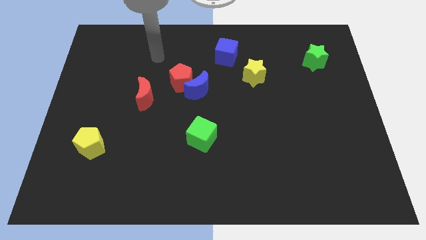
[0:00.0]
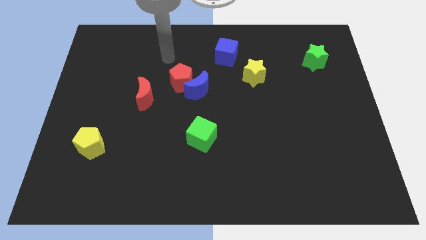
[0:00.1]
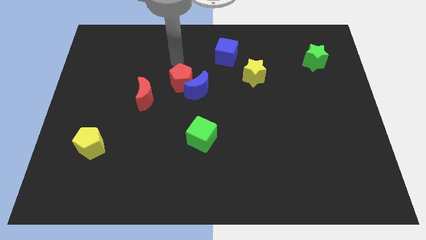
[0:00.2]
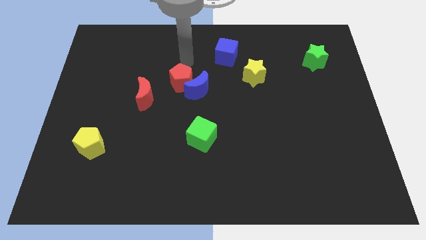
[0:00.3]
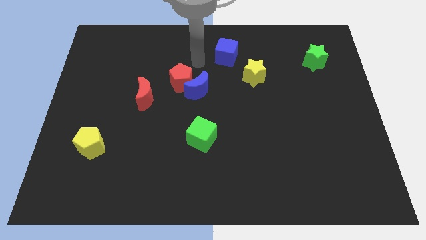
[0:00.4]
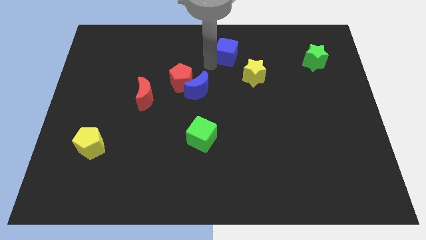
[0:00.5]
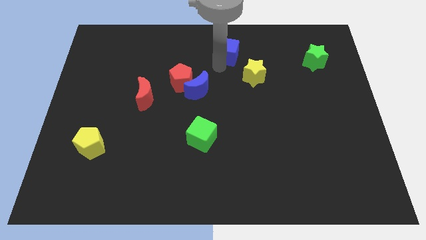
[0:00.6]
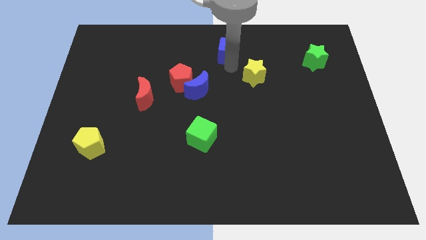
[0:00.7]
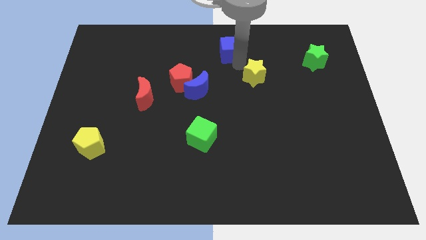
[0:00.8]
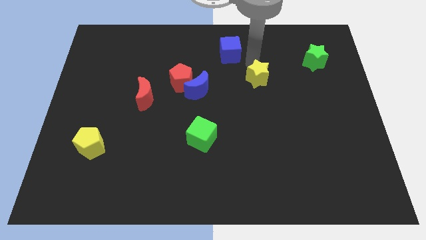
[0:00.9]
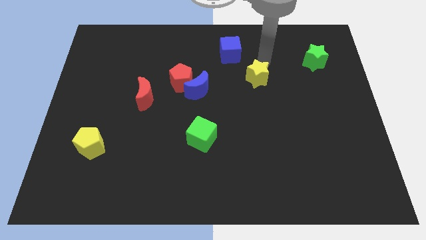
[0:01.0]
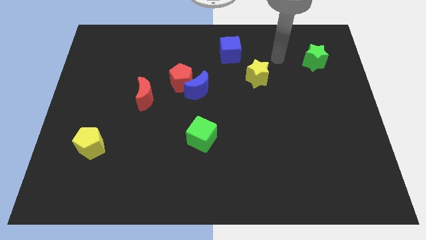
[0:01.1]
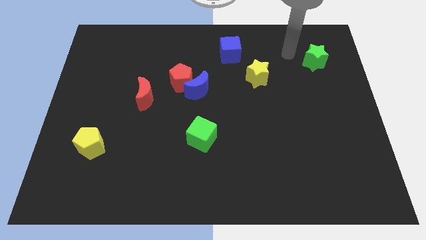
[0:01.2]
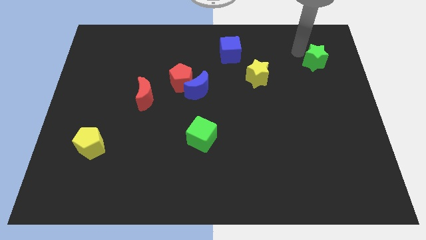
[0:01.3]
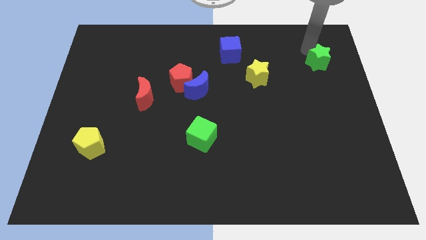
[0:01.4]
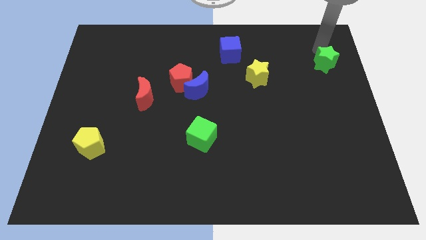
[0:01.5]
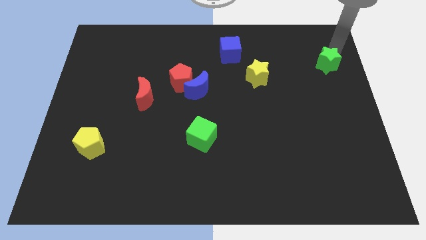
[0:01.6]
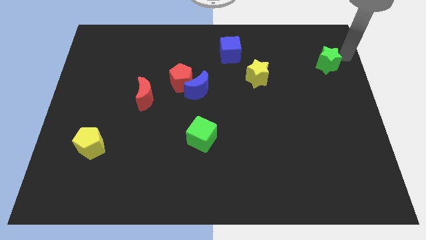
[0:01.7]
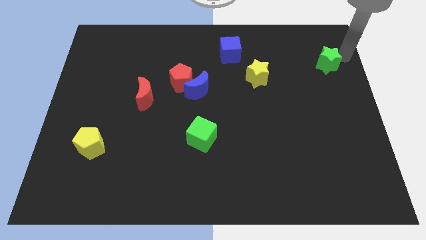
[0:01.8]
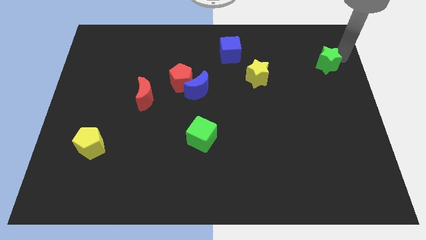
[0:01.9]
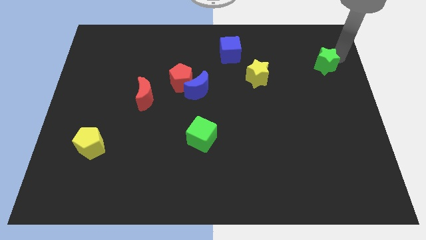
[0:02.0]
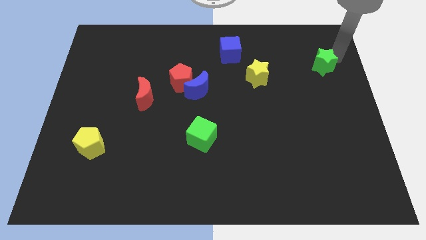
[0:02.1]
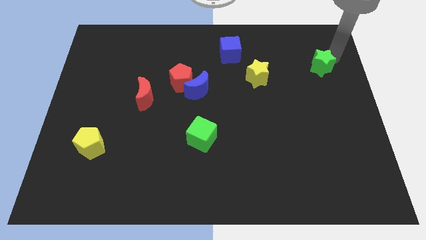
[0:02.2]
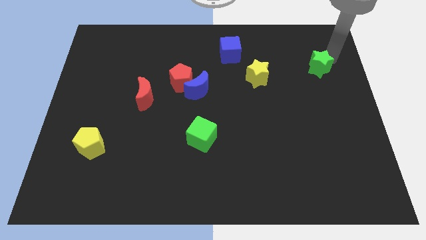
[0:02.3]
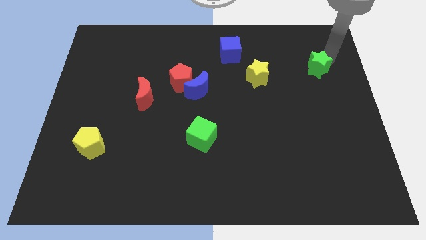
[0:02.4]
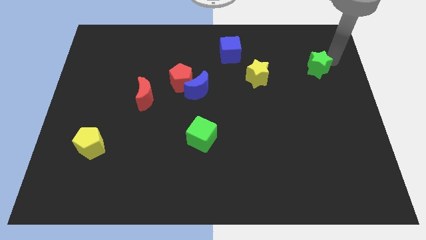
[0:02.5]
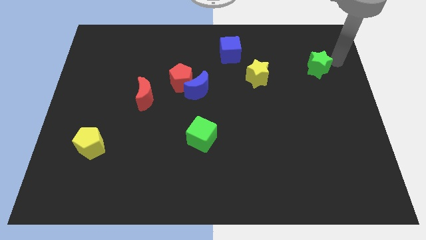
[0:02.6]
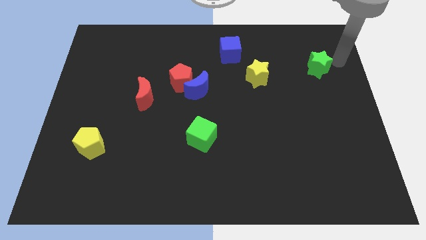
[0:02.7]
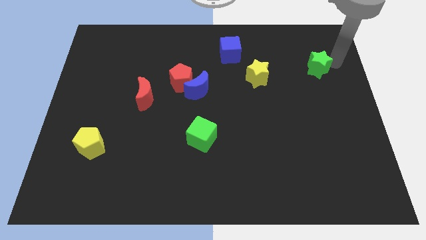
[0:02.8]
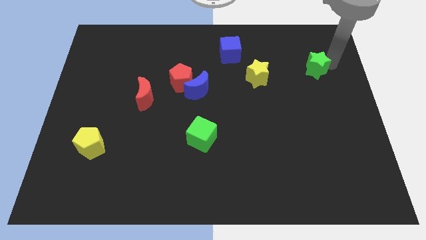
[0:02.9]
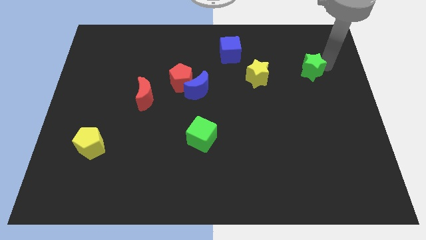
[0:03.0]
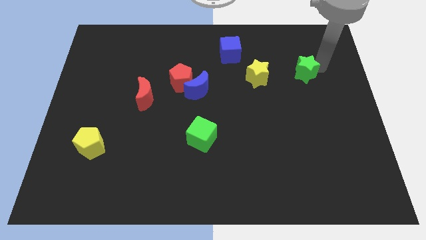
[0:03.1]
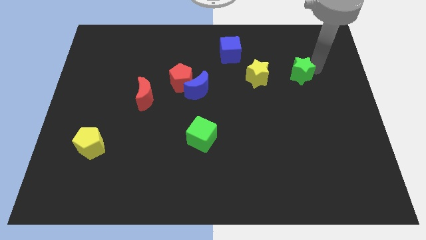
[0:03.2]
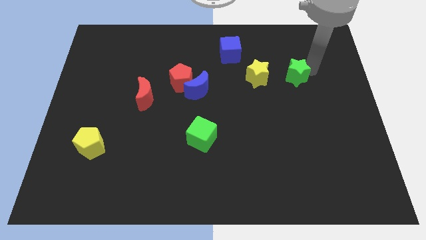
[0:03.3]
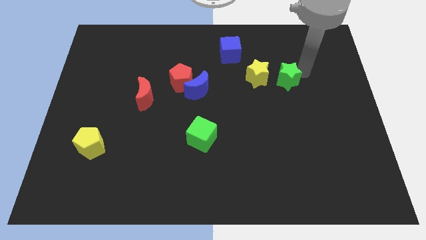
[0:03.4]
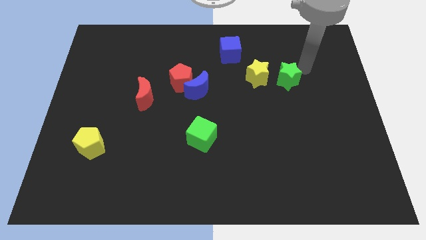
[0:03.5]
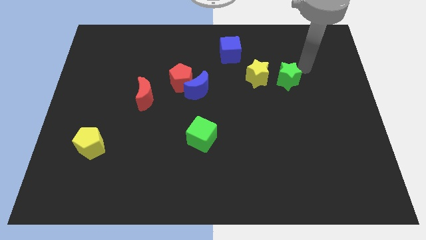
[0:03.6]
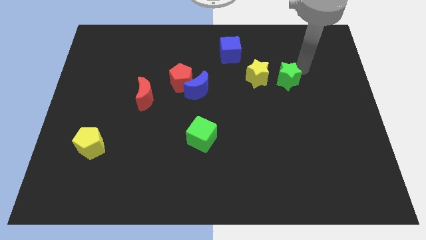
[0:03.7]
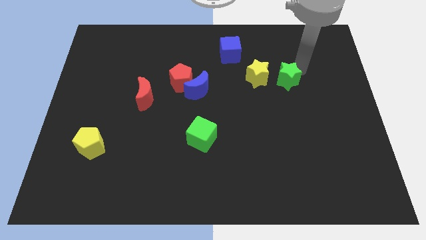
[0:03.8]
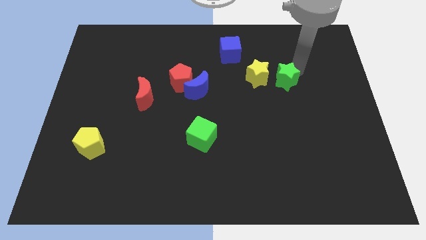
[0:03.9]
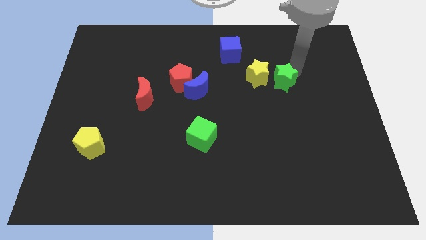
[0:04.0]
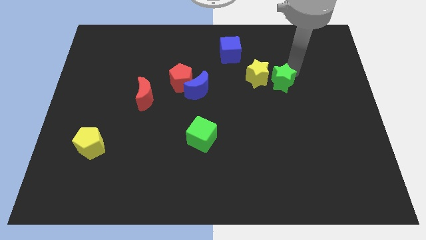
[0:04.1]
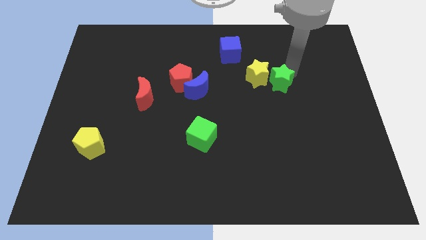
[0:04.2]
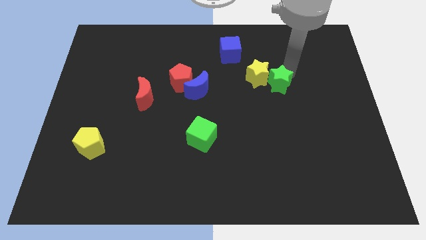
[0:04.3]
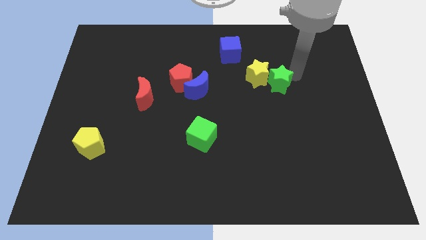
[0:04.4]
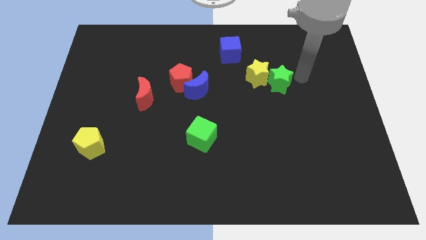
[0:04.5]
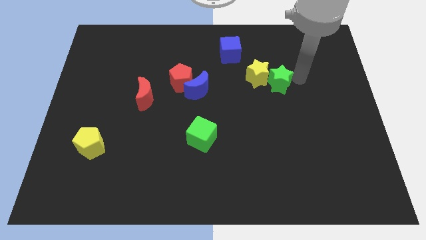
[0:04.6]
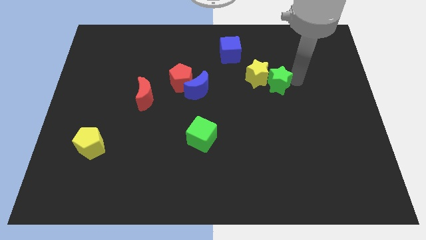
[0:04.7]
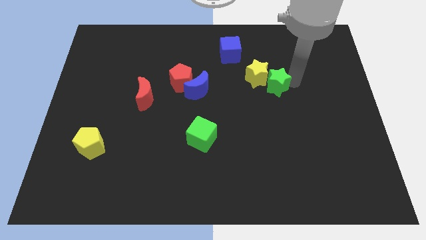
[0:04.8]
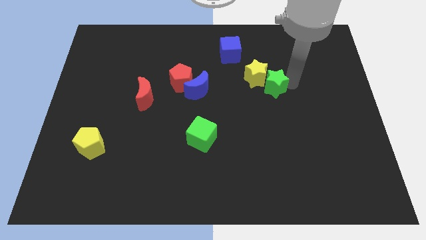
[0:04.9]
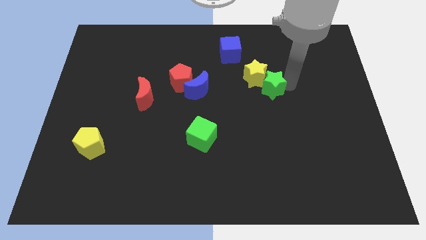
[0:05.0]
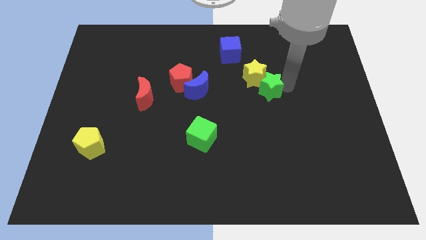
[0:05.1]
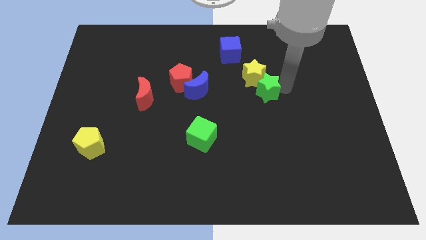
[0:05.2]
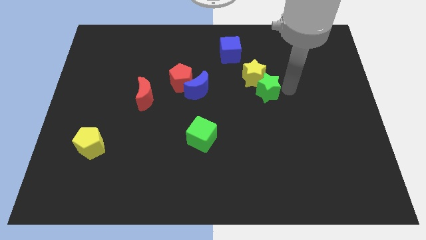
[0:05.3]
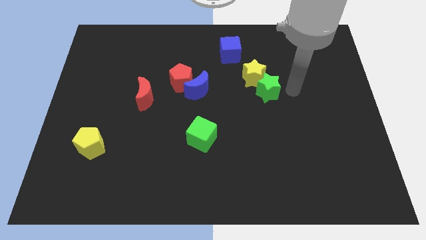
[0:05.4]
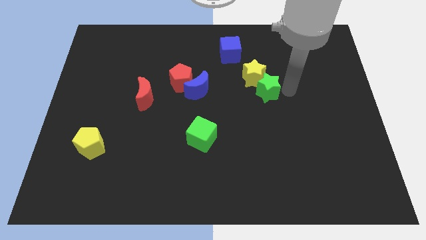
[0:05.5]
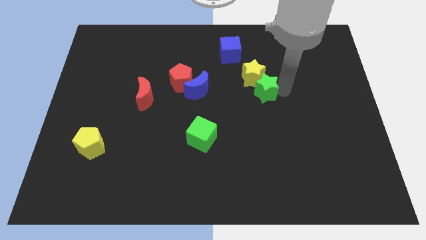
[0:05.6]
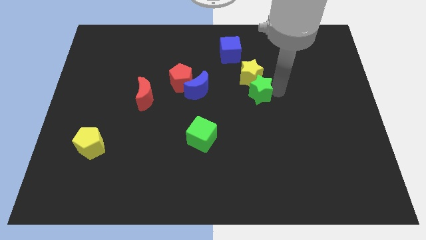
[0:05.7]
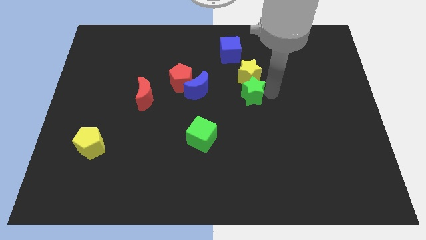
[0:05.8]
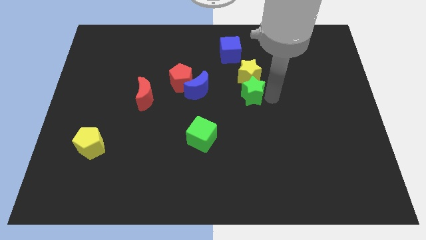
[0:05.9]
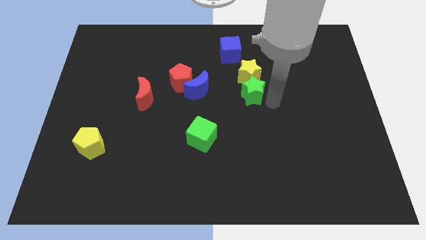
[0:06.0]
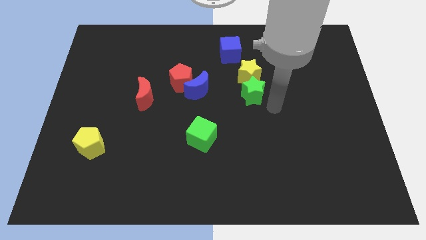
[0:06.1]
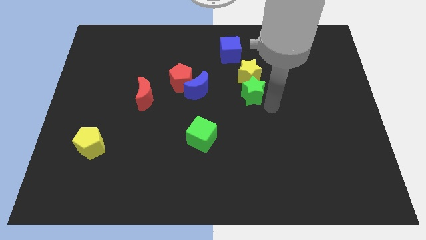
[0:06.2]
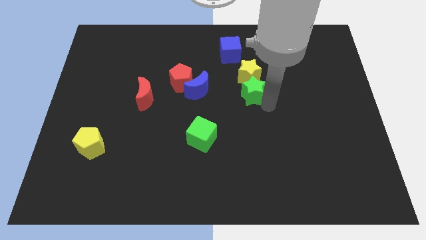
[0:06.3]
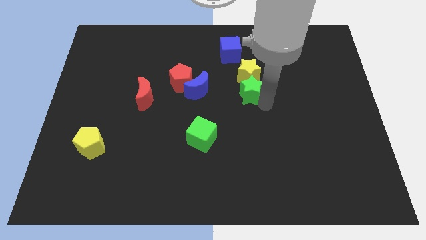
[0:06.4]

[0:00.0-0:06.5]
push the green star to the bottom side of the blue cube

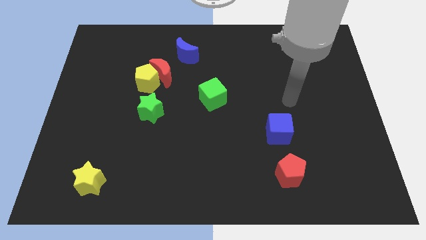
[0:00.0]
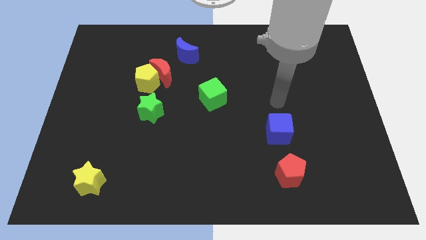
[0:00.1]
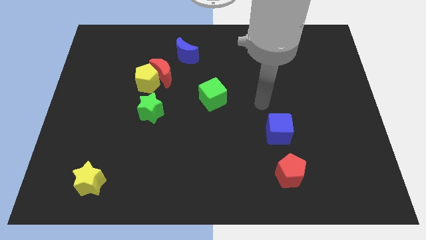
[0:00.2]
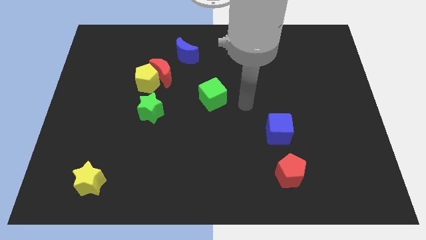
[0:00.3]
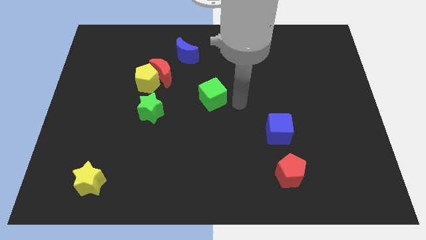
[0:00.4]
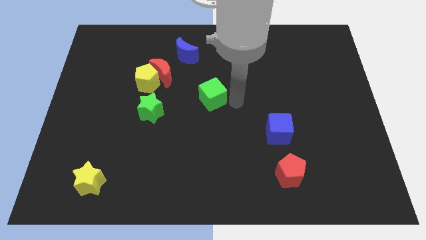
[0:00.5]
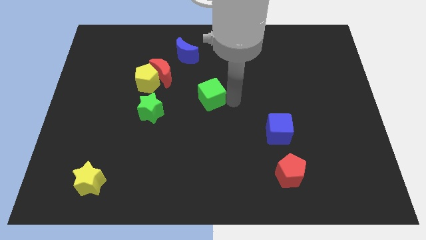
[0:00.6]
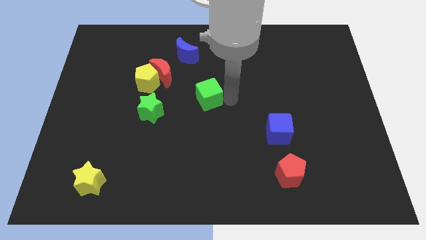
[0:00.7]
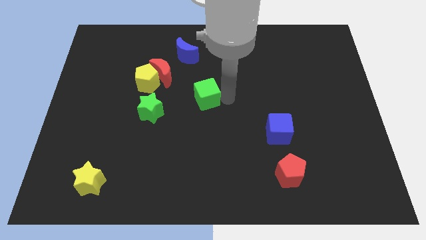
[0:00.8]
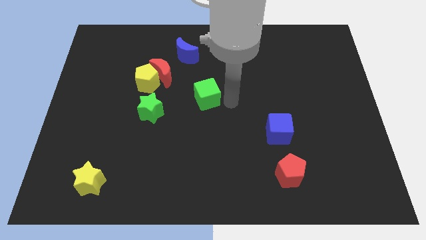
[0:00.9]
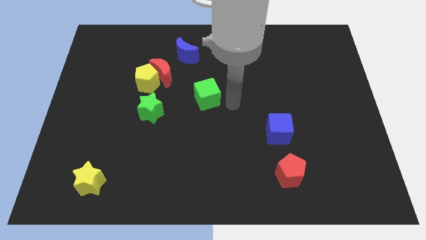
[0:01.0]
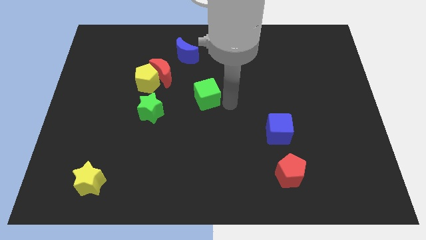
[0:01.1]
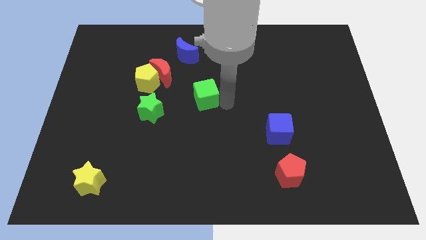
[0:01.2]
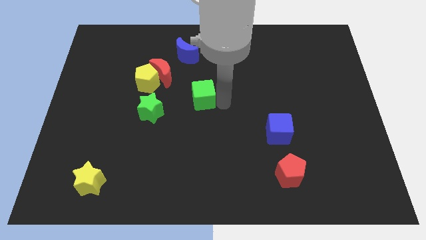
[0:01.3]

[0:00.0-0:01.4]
put the green cube to the bottom right of the red moon
